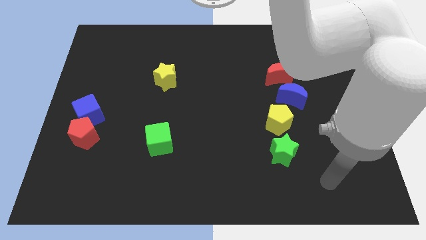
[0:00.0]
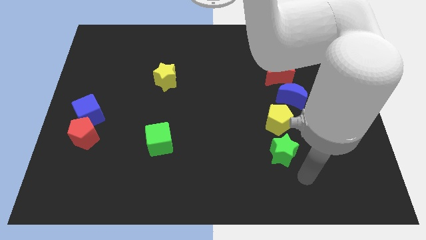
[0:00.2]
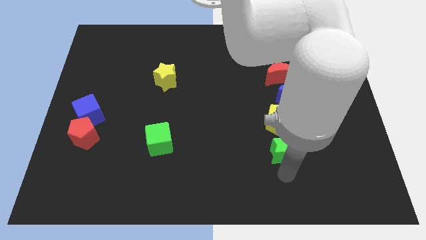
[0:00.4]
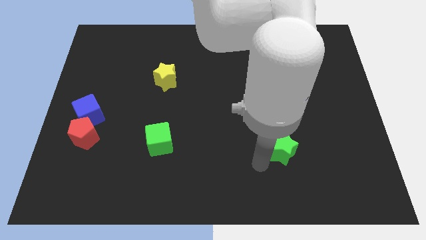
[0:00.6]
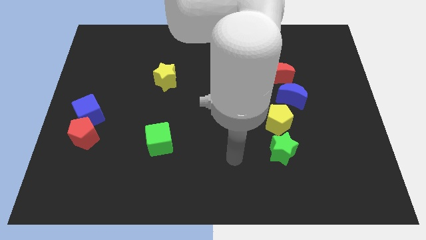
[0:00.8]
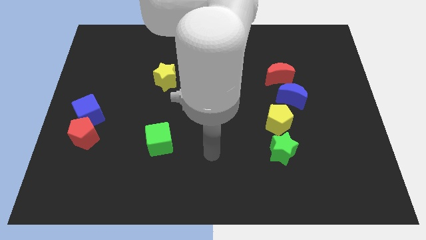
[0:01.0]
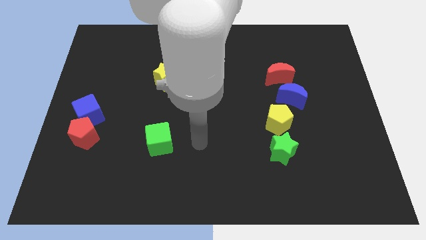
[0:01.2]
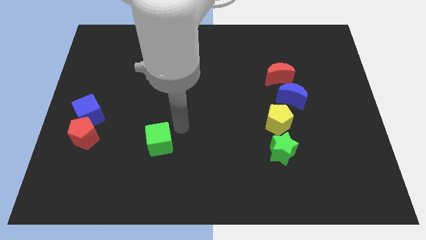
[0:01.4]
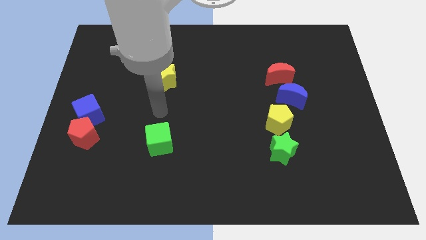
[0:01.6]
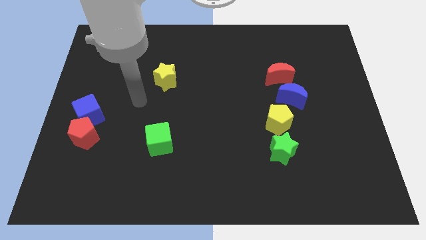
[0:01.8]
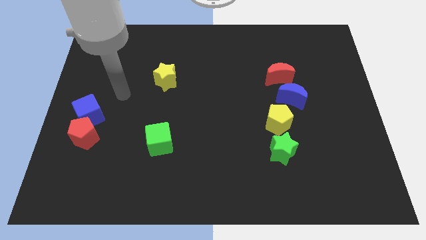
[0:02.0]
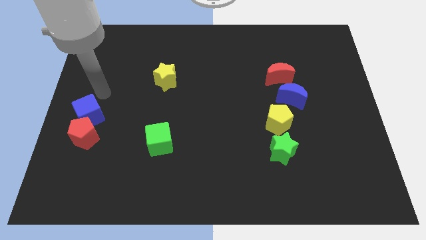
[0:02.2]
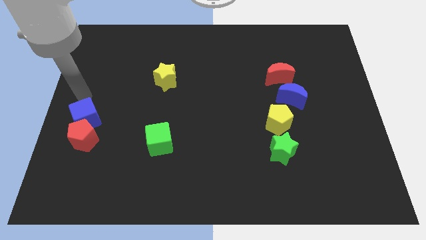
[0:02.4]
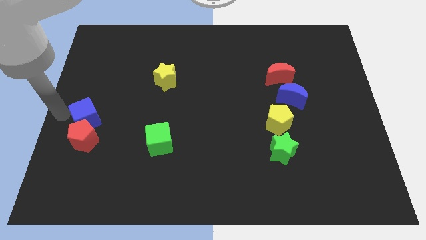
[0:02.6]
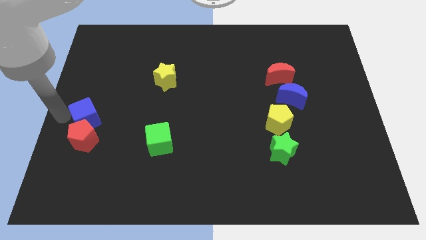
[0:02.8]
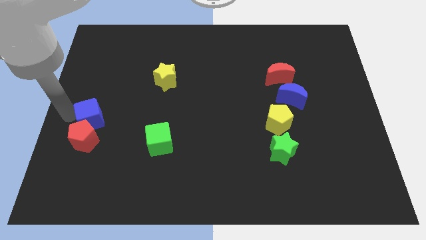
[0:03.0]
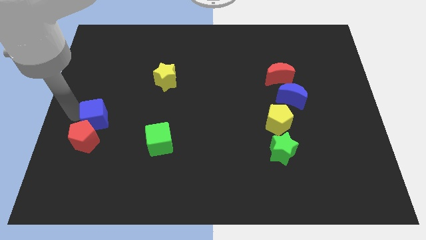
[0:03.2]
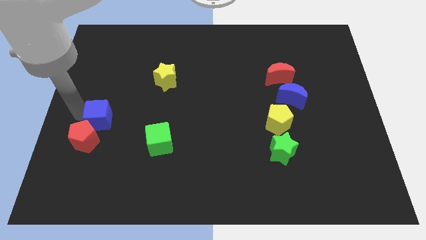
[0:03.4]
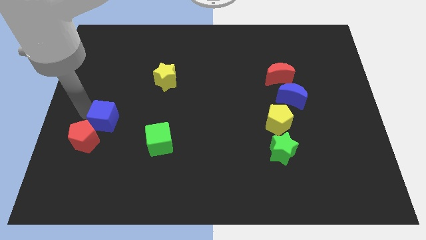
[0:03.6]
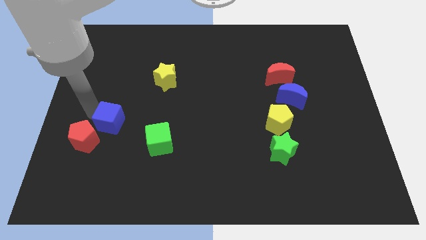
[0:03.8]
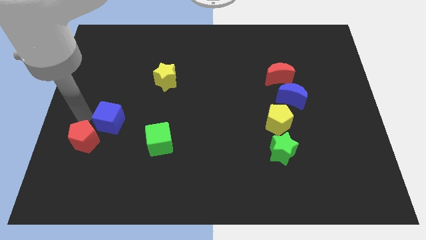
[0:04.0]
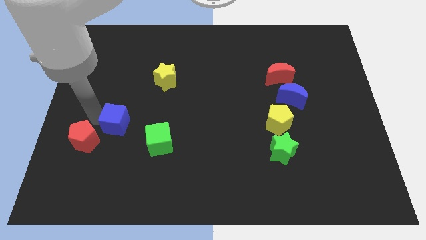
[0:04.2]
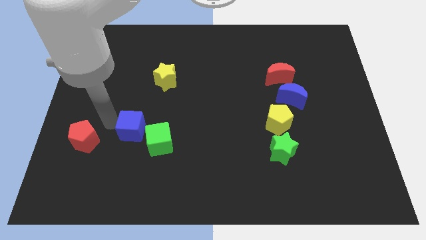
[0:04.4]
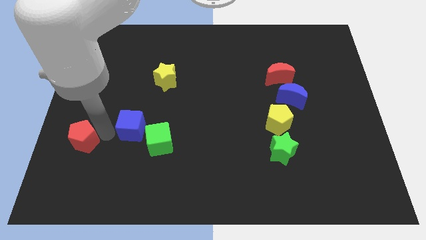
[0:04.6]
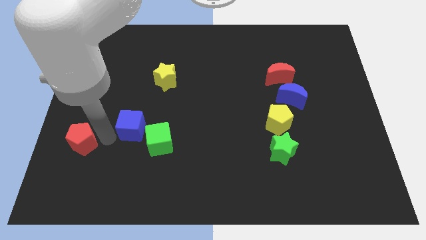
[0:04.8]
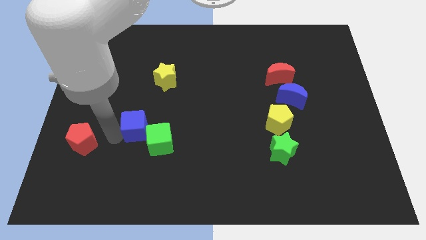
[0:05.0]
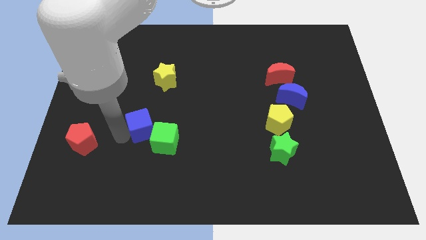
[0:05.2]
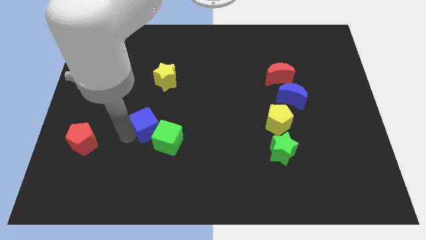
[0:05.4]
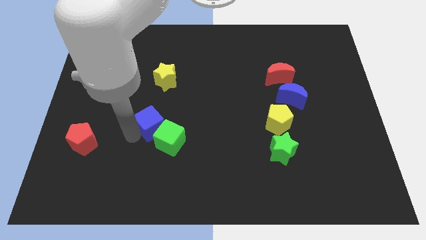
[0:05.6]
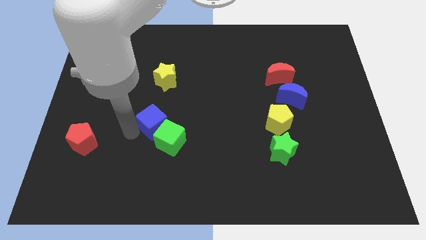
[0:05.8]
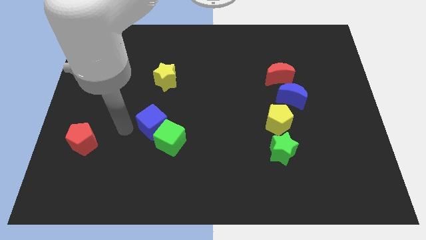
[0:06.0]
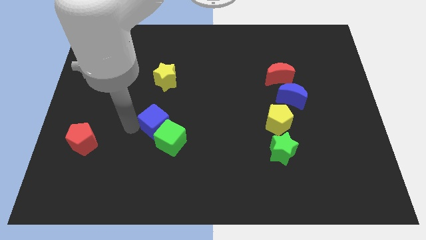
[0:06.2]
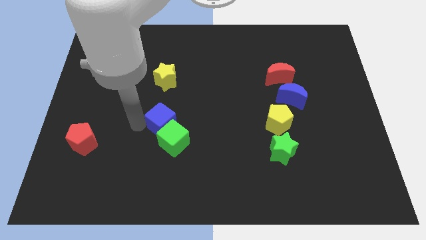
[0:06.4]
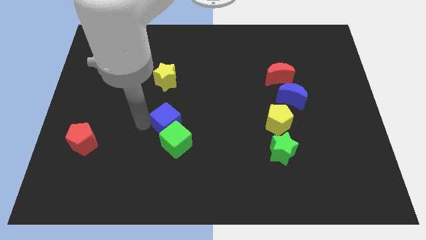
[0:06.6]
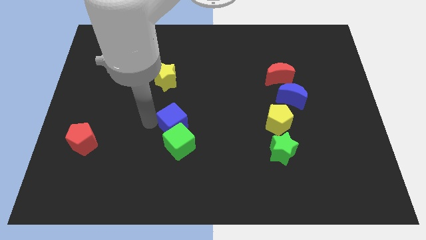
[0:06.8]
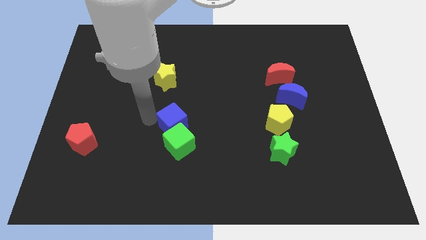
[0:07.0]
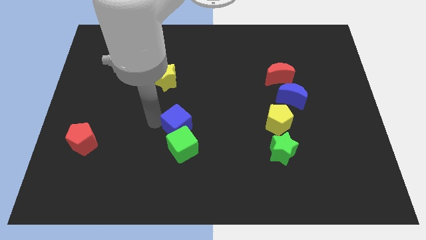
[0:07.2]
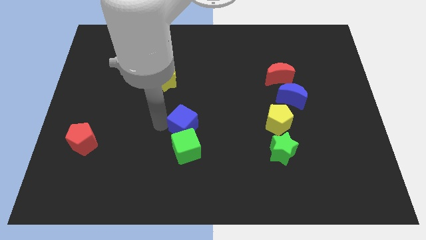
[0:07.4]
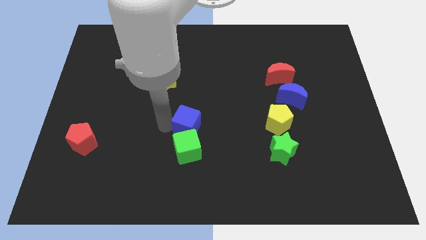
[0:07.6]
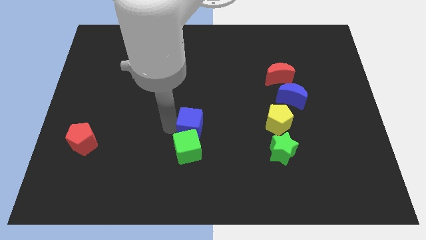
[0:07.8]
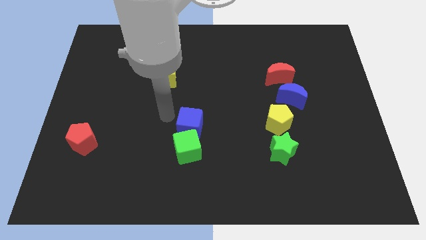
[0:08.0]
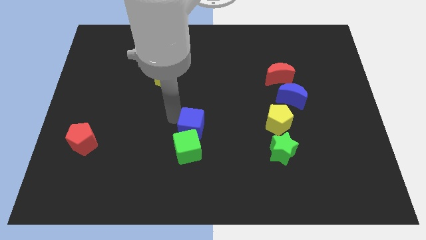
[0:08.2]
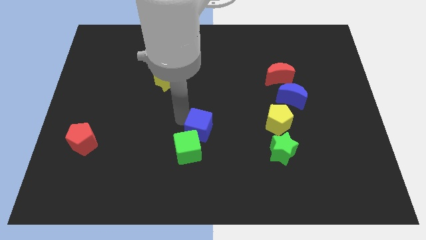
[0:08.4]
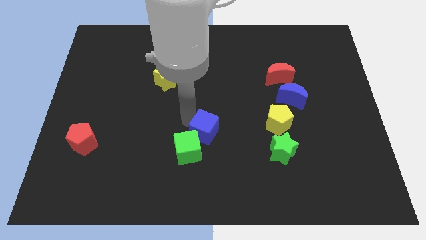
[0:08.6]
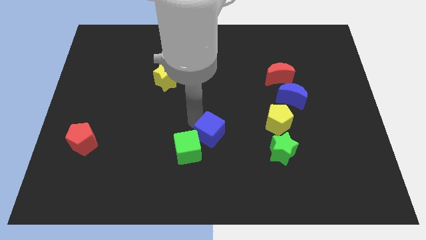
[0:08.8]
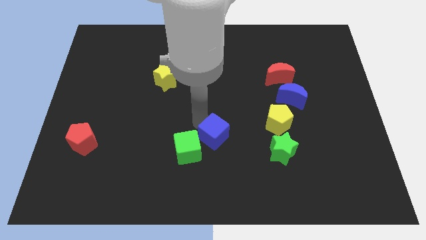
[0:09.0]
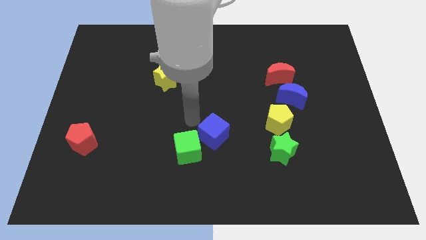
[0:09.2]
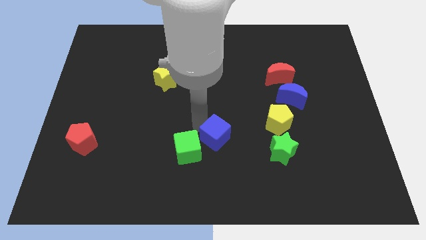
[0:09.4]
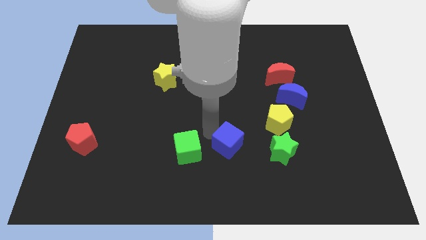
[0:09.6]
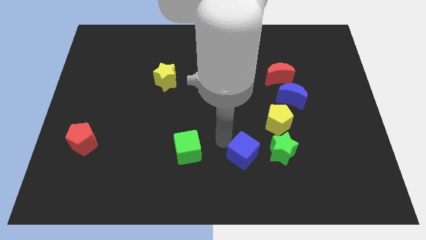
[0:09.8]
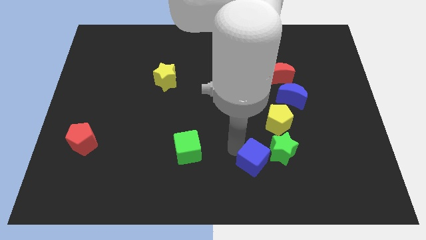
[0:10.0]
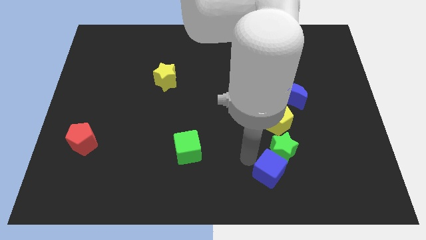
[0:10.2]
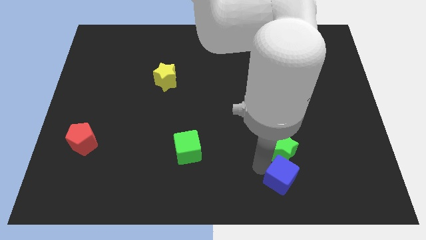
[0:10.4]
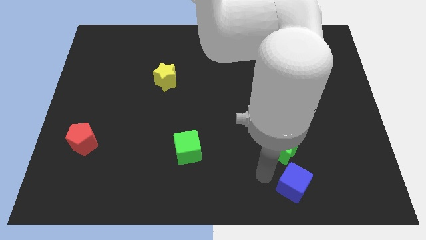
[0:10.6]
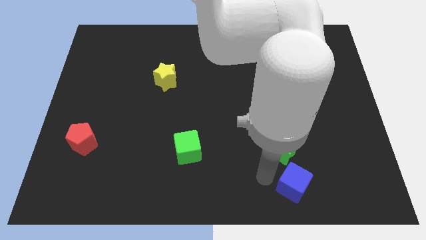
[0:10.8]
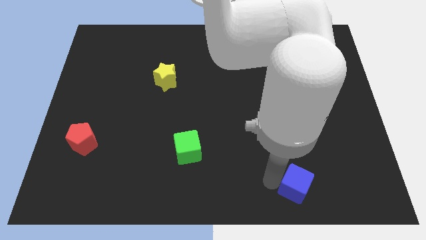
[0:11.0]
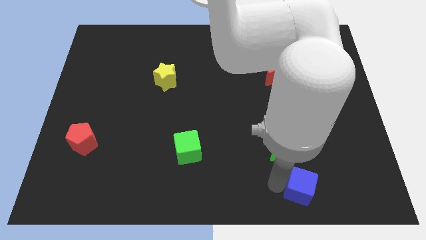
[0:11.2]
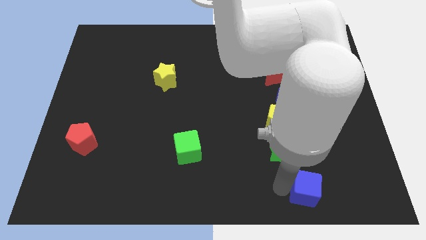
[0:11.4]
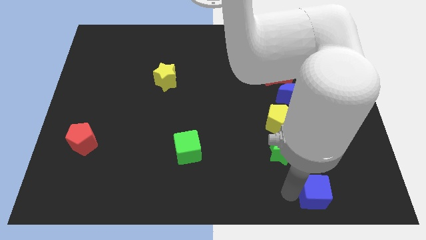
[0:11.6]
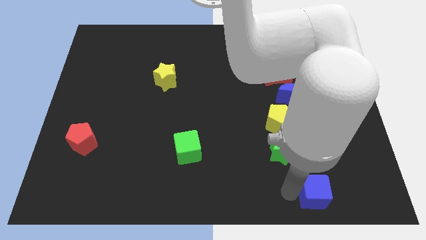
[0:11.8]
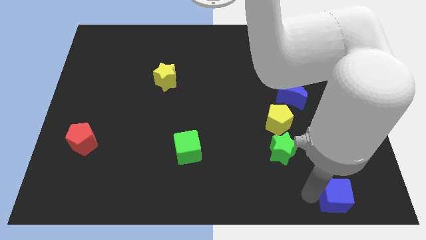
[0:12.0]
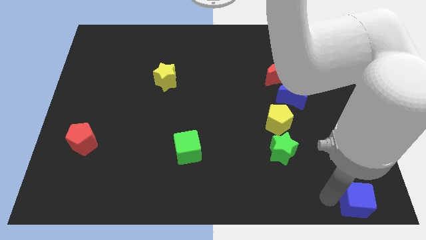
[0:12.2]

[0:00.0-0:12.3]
slide the blue cube to the bottom right corner
